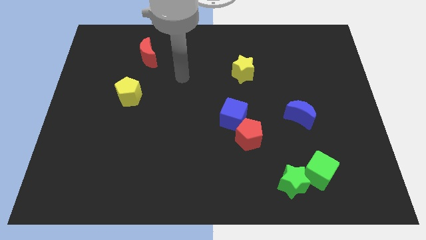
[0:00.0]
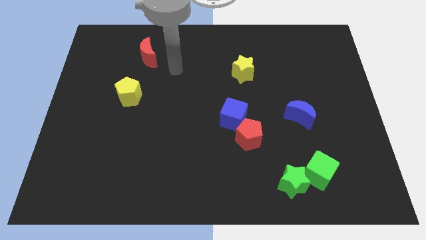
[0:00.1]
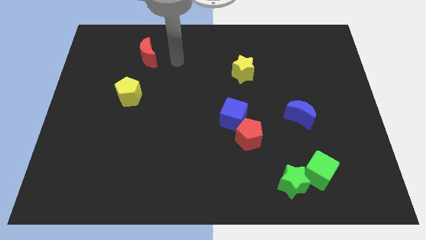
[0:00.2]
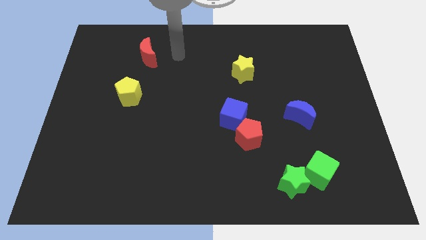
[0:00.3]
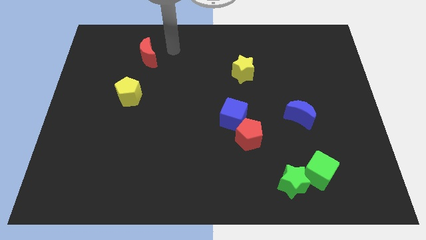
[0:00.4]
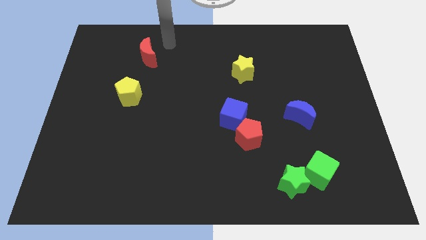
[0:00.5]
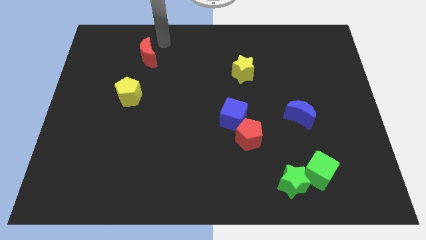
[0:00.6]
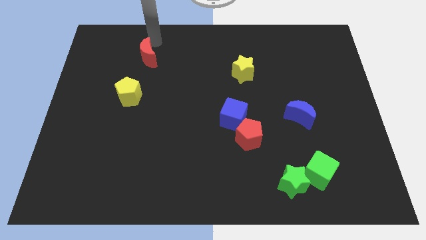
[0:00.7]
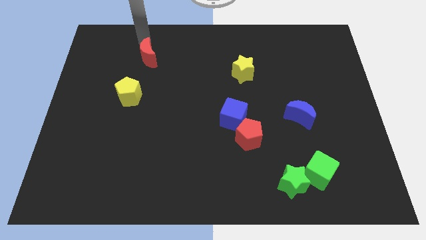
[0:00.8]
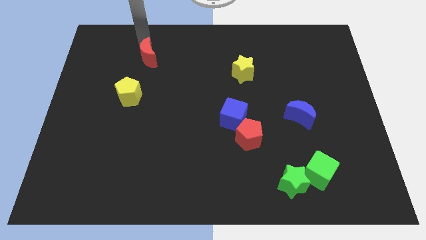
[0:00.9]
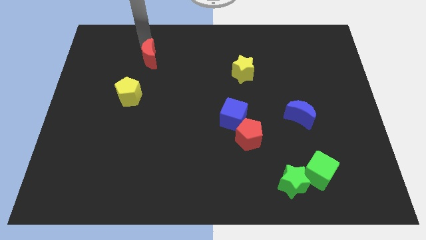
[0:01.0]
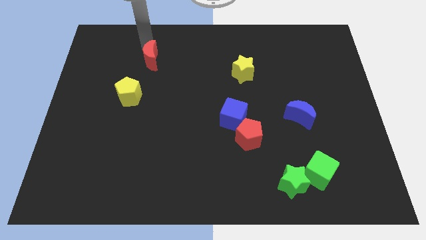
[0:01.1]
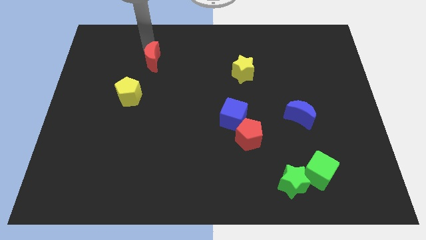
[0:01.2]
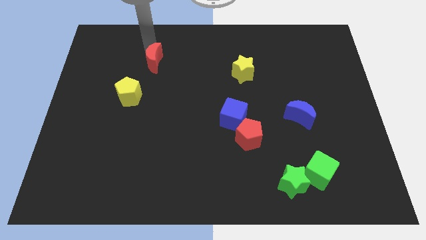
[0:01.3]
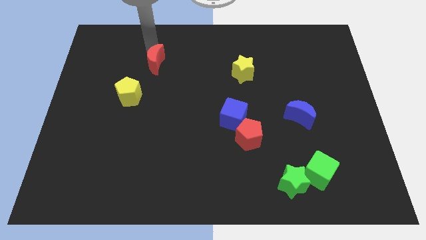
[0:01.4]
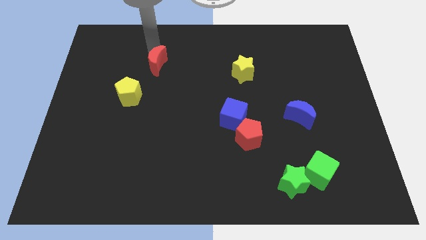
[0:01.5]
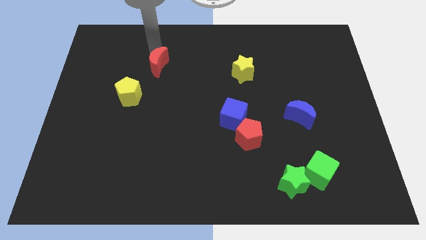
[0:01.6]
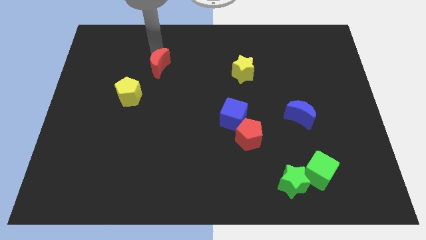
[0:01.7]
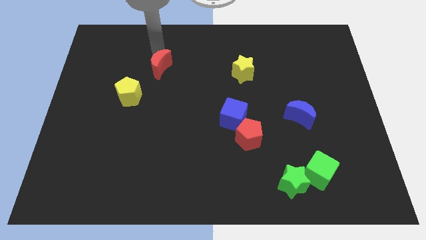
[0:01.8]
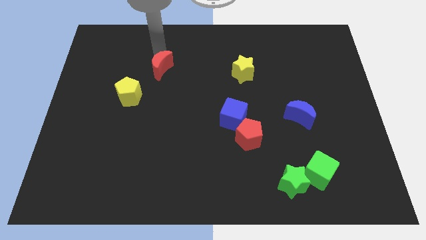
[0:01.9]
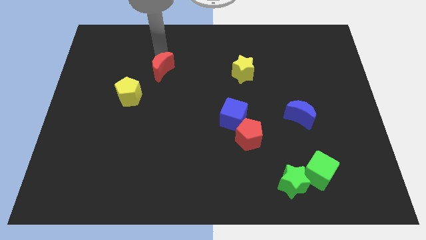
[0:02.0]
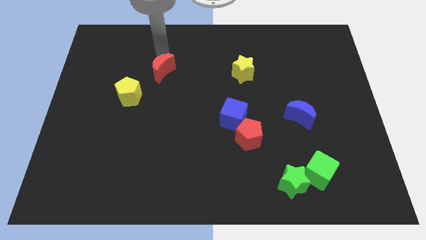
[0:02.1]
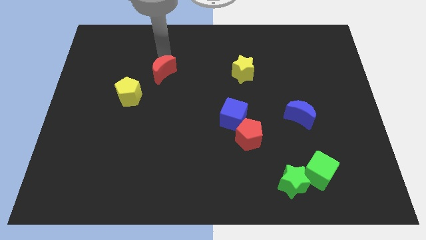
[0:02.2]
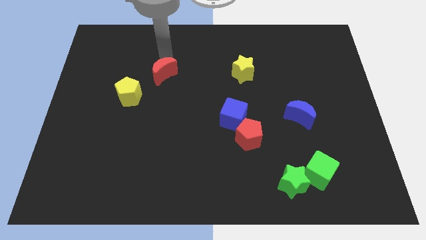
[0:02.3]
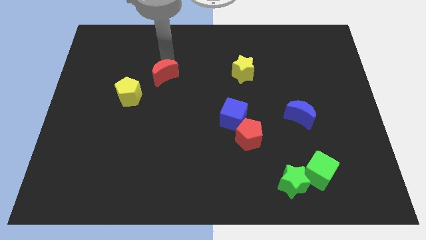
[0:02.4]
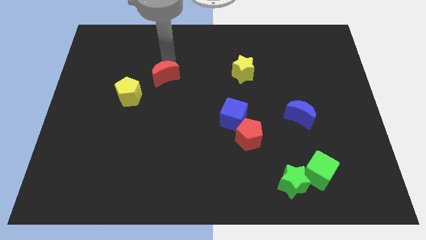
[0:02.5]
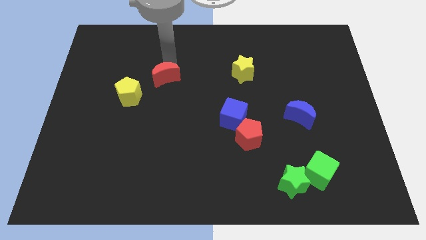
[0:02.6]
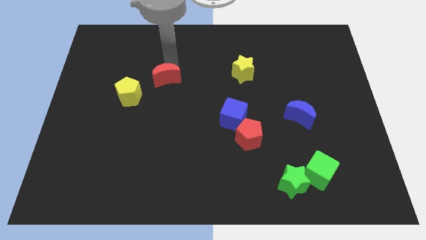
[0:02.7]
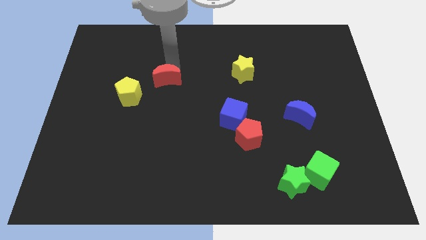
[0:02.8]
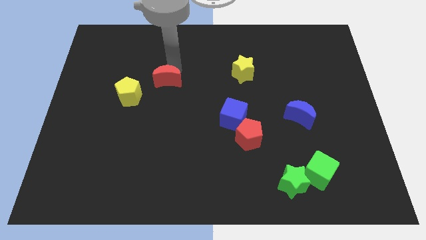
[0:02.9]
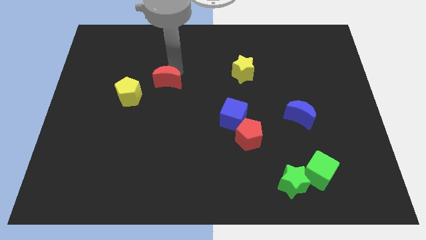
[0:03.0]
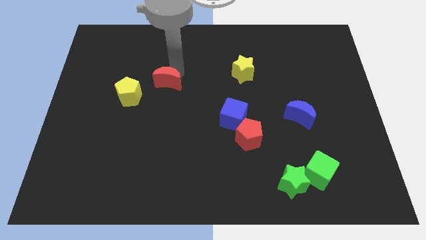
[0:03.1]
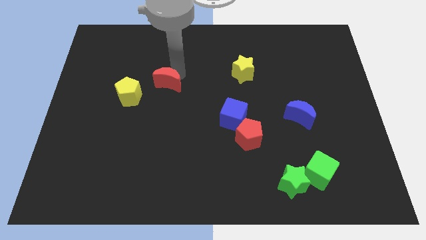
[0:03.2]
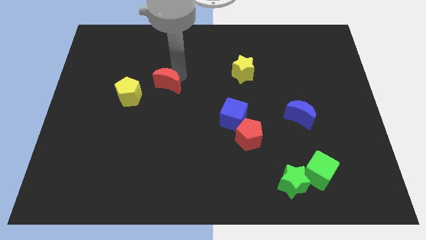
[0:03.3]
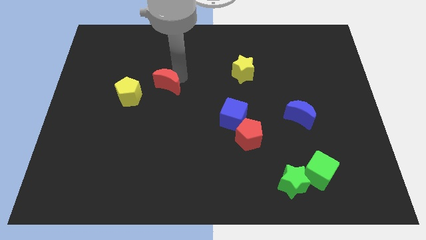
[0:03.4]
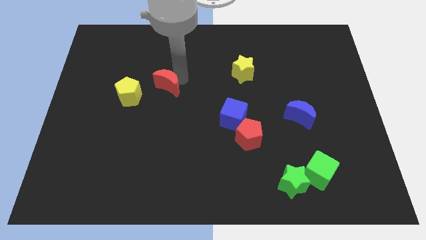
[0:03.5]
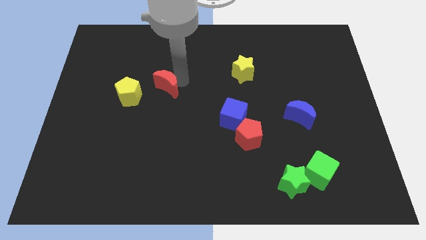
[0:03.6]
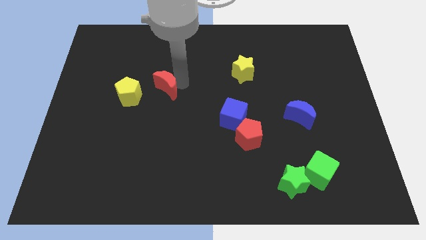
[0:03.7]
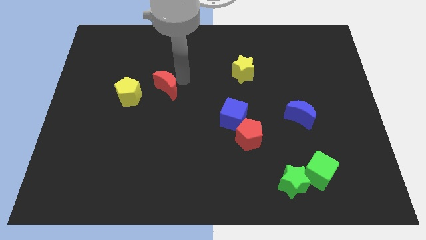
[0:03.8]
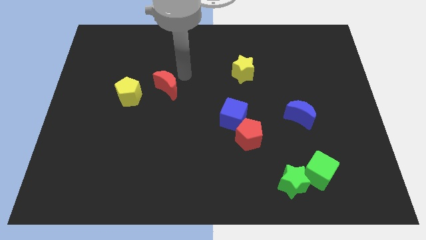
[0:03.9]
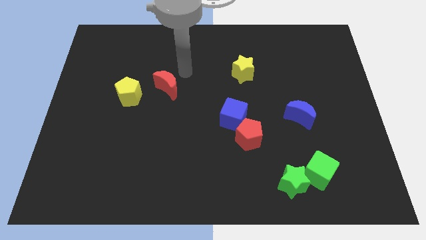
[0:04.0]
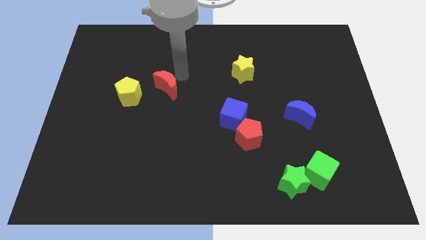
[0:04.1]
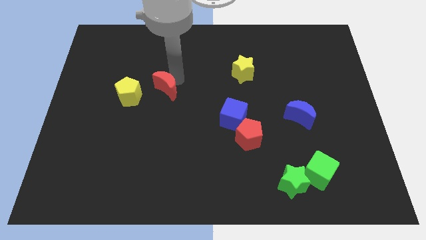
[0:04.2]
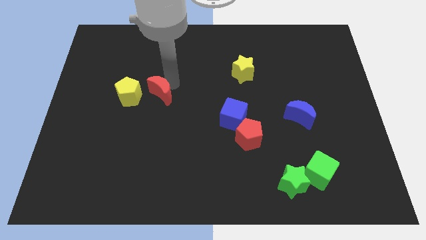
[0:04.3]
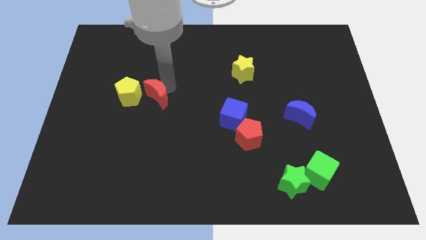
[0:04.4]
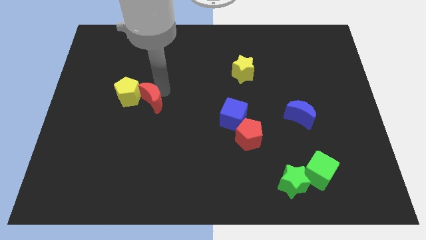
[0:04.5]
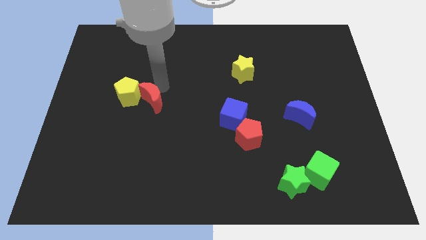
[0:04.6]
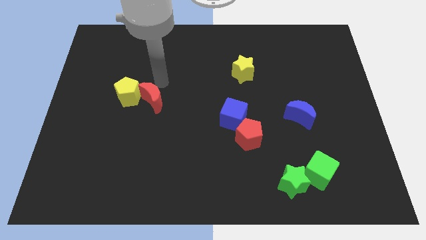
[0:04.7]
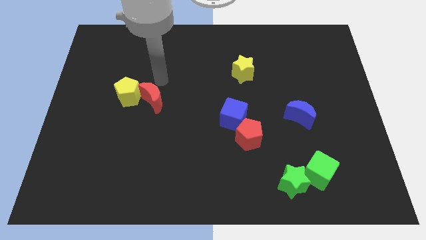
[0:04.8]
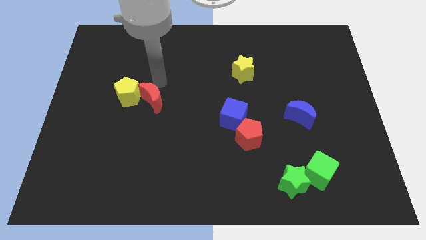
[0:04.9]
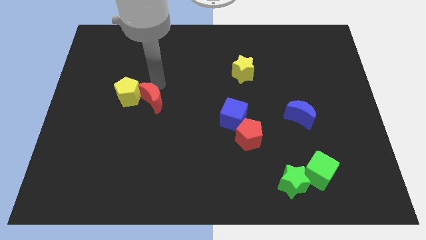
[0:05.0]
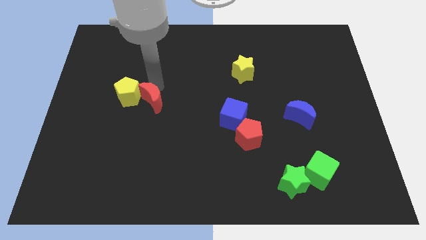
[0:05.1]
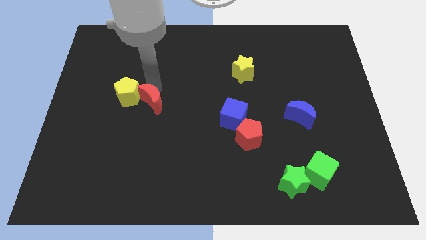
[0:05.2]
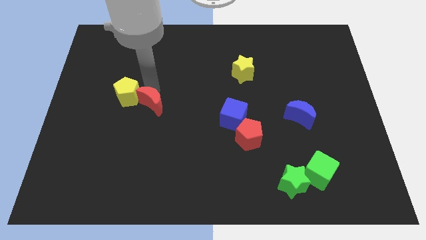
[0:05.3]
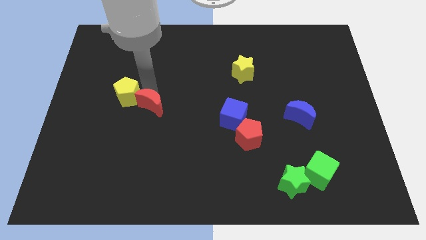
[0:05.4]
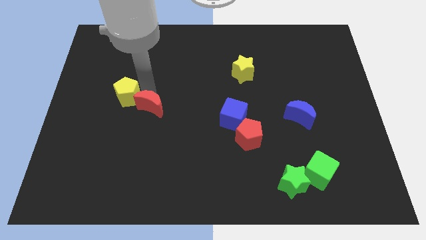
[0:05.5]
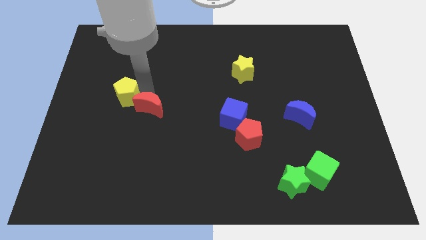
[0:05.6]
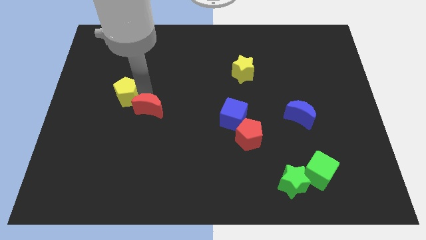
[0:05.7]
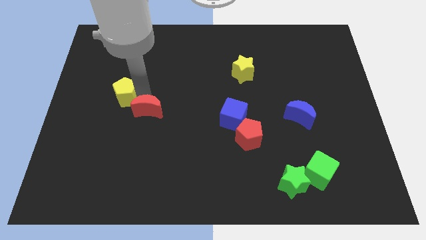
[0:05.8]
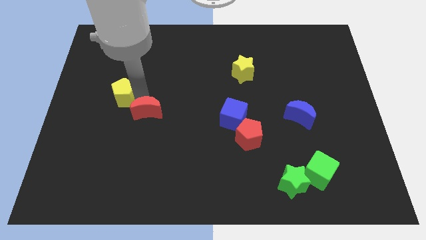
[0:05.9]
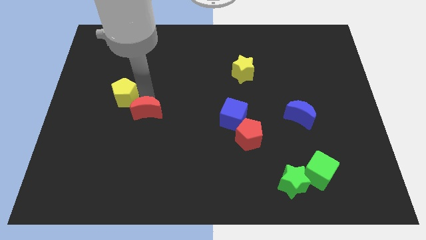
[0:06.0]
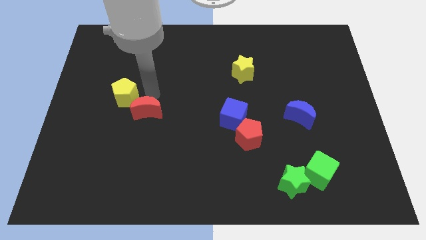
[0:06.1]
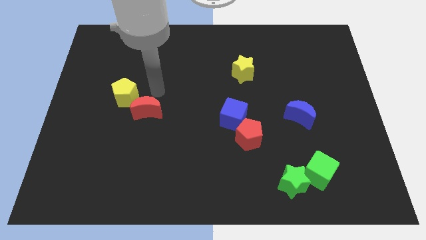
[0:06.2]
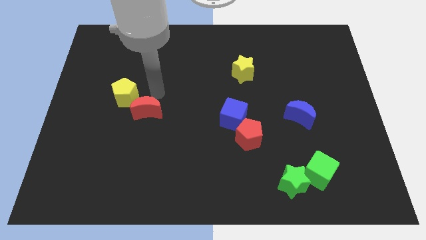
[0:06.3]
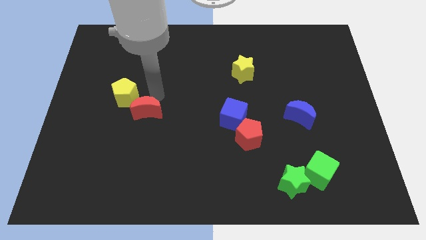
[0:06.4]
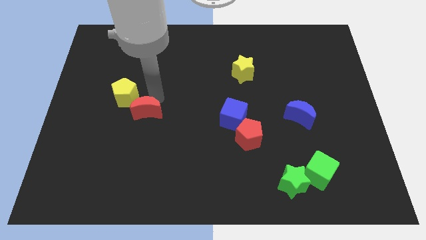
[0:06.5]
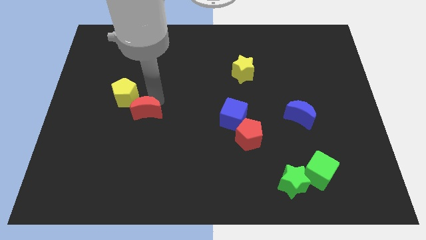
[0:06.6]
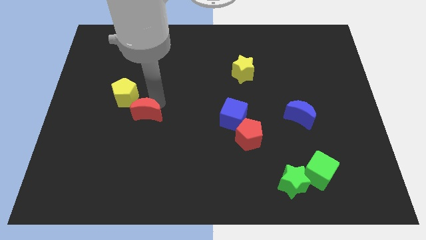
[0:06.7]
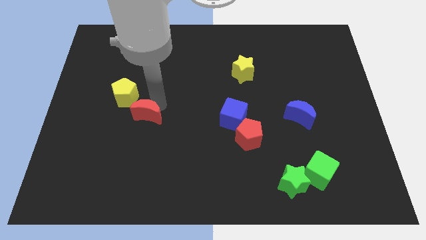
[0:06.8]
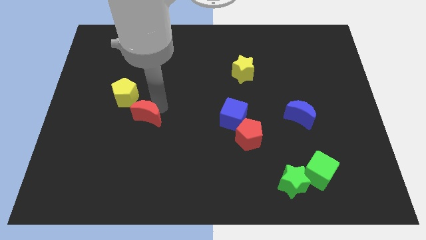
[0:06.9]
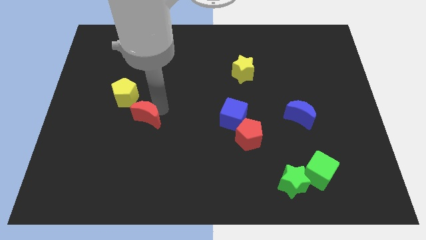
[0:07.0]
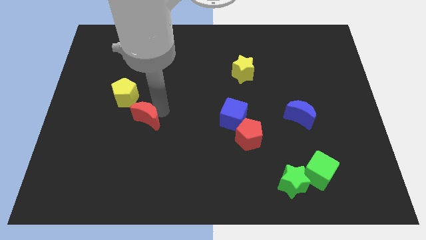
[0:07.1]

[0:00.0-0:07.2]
move the red moon downwards

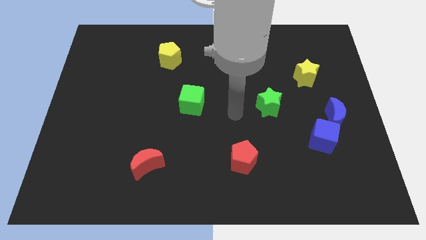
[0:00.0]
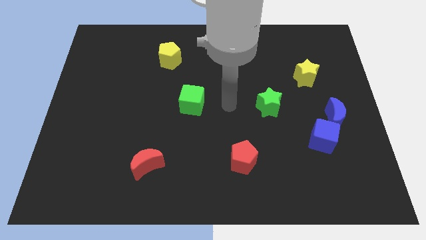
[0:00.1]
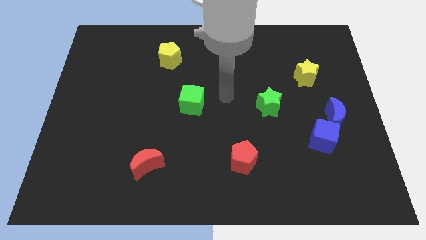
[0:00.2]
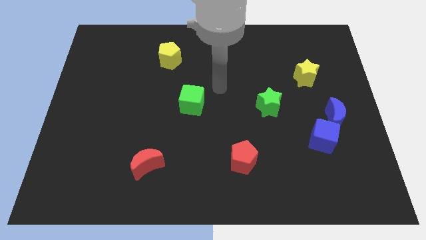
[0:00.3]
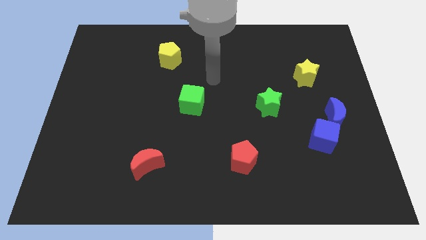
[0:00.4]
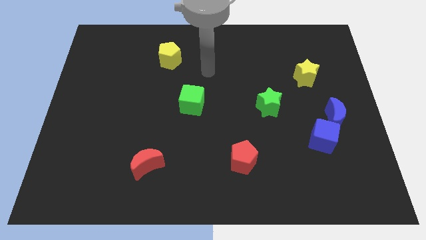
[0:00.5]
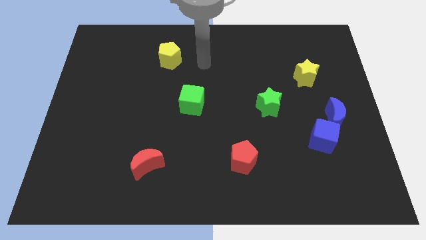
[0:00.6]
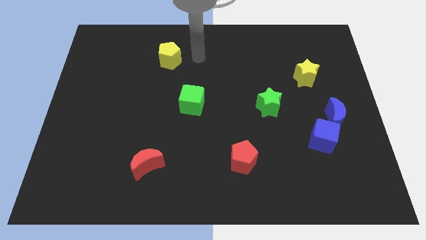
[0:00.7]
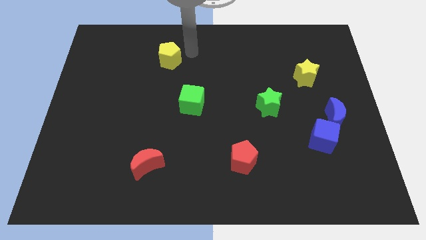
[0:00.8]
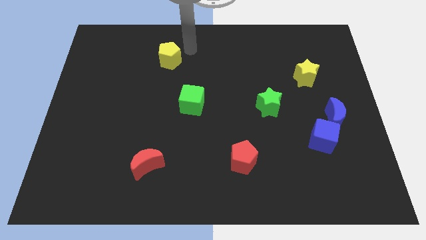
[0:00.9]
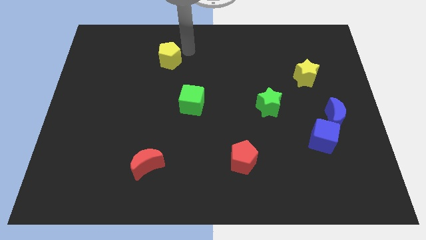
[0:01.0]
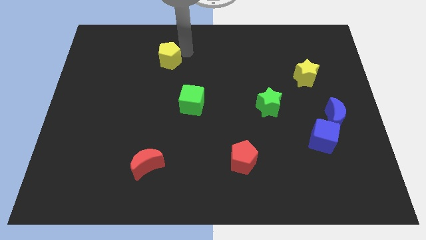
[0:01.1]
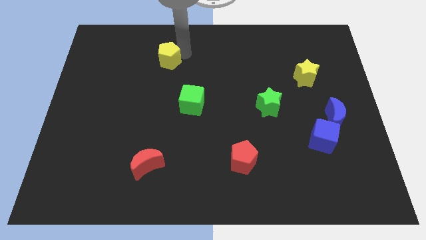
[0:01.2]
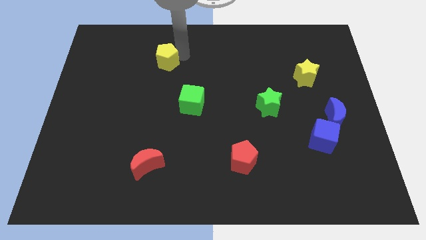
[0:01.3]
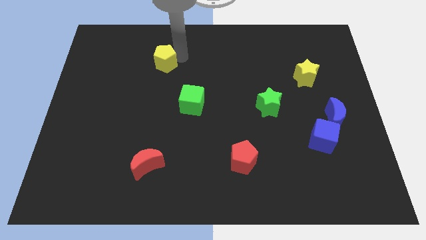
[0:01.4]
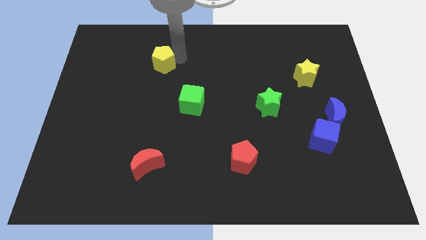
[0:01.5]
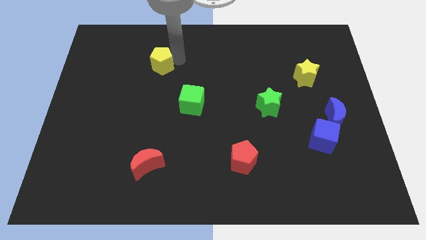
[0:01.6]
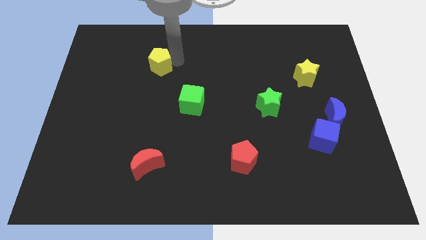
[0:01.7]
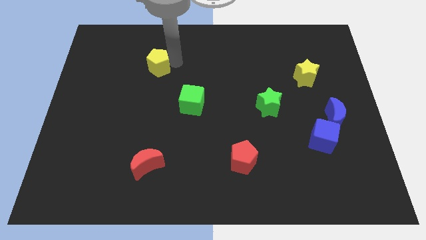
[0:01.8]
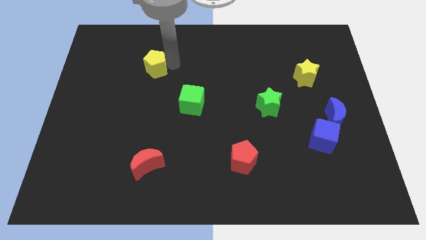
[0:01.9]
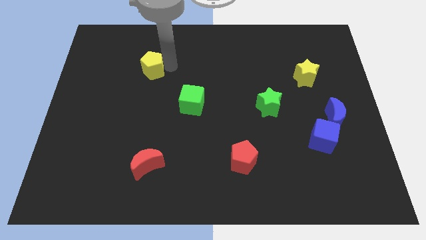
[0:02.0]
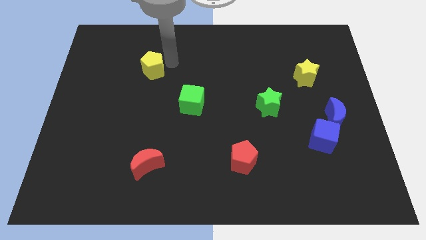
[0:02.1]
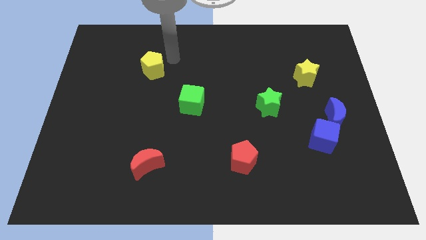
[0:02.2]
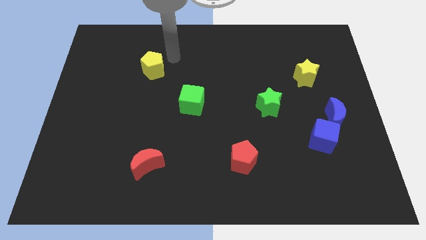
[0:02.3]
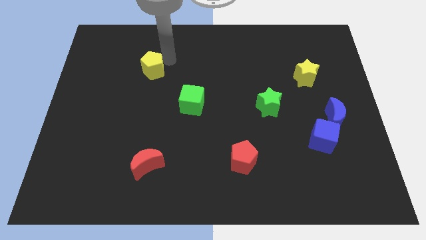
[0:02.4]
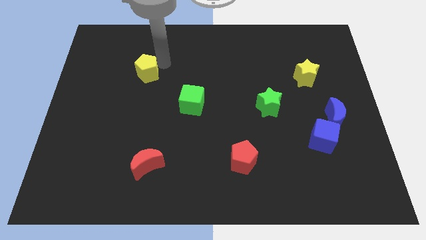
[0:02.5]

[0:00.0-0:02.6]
push the yellow pentagon a little down and left diagonally
